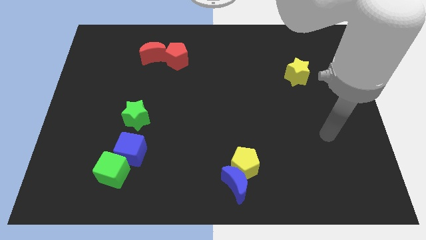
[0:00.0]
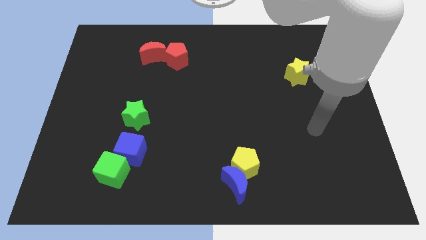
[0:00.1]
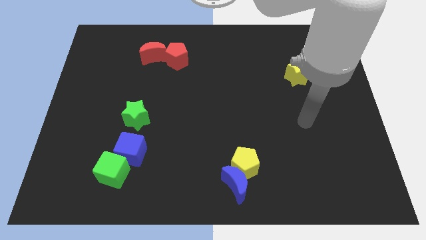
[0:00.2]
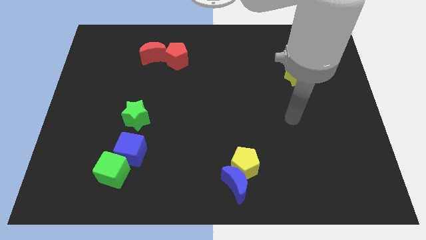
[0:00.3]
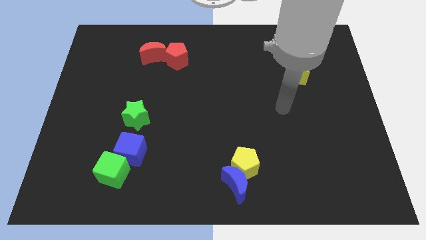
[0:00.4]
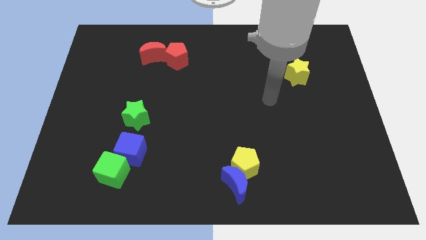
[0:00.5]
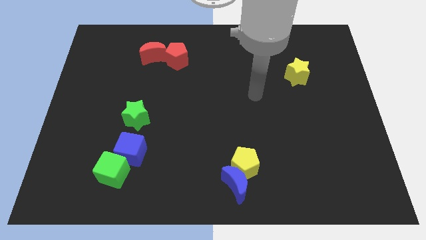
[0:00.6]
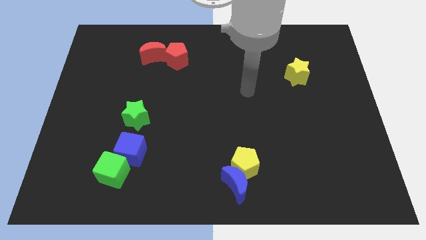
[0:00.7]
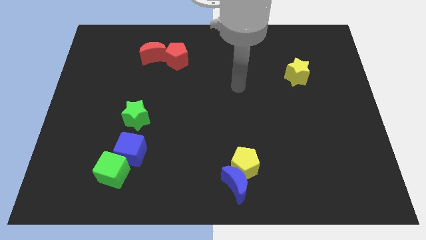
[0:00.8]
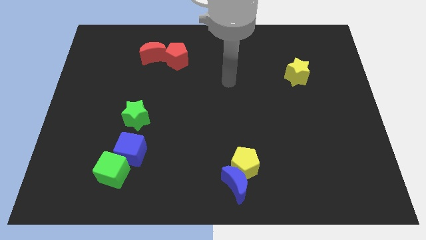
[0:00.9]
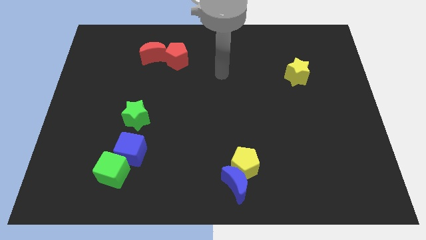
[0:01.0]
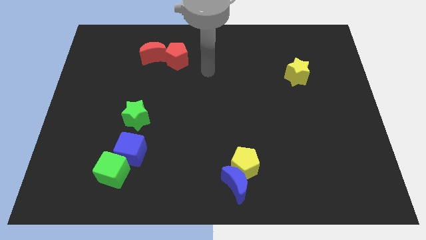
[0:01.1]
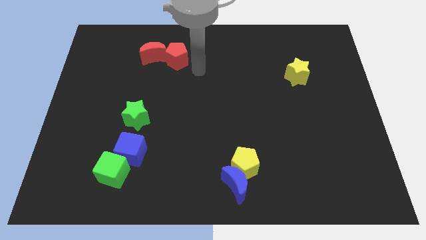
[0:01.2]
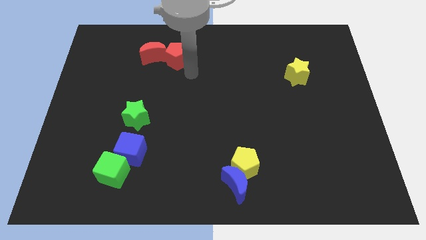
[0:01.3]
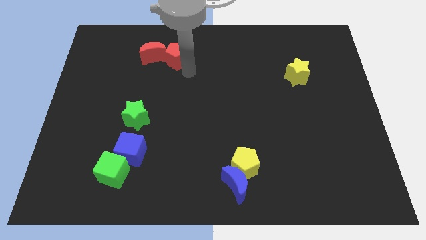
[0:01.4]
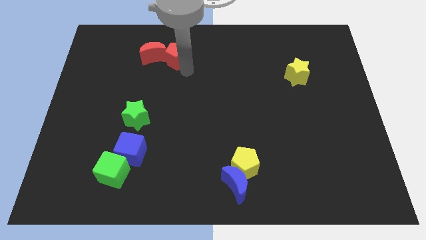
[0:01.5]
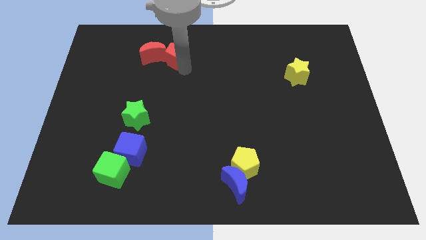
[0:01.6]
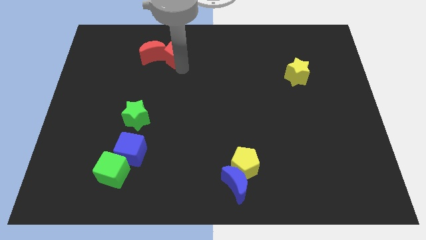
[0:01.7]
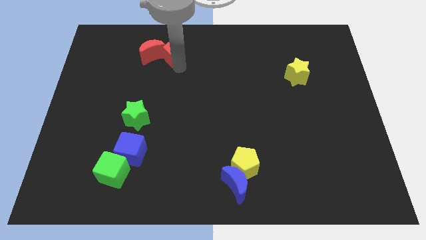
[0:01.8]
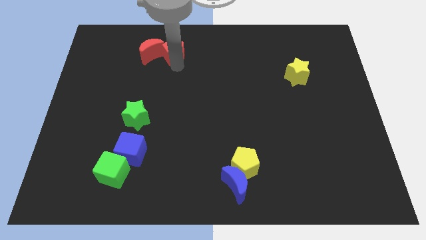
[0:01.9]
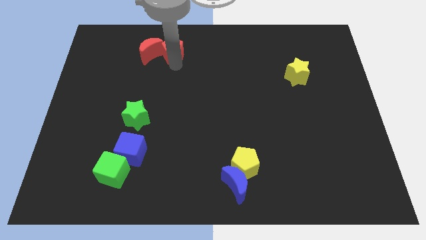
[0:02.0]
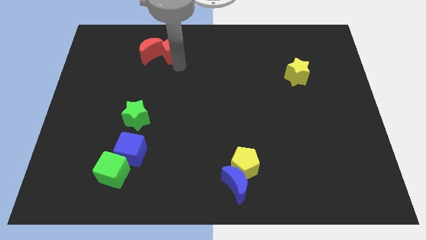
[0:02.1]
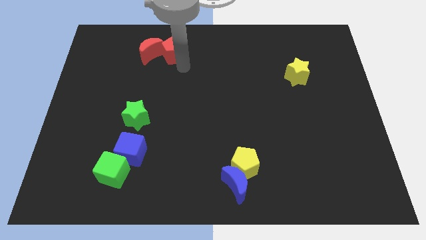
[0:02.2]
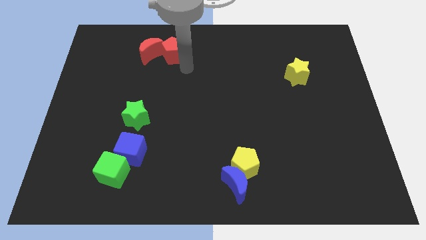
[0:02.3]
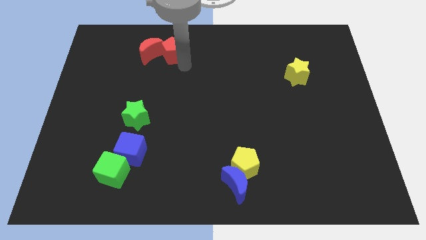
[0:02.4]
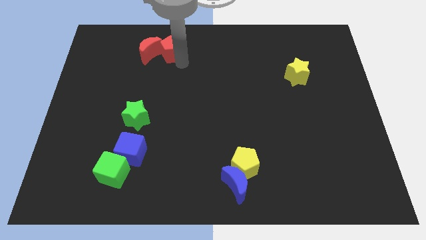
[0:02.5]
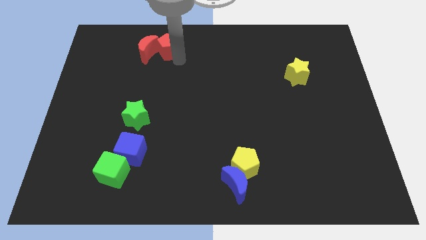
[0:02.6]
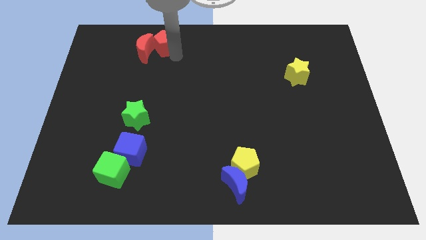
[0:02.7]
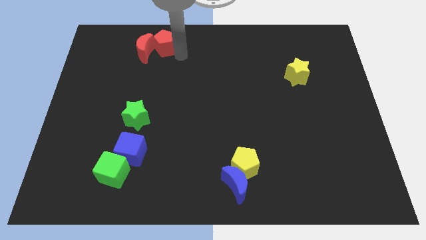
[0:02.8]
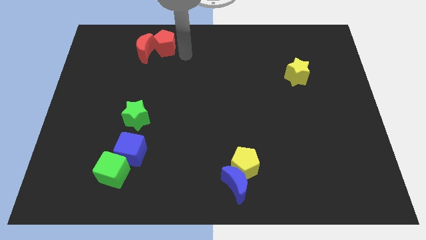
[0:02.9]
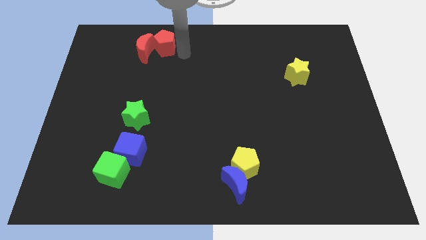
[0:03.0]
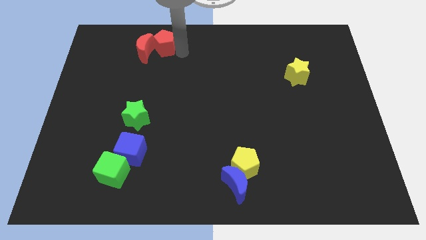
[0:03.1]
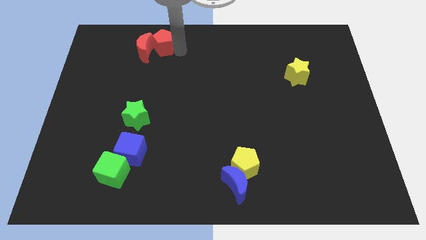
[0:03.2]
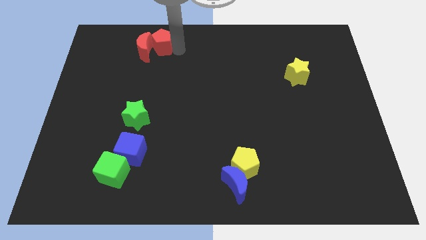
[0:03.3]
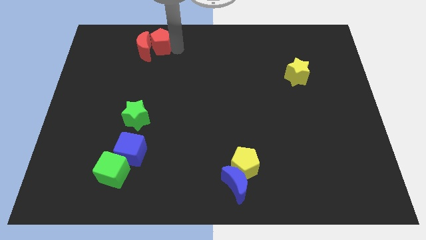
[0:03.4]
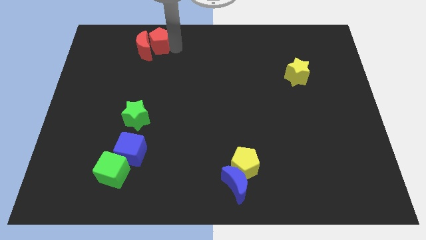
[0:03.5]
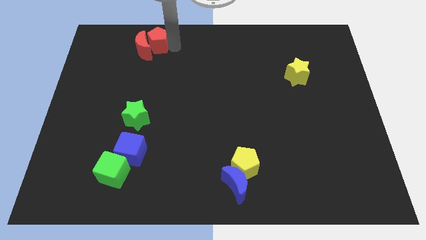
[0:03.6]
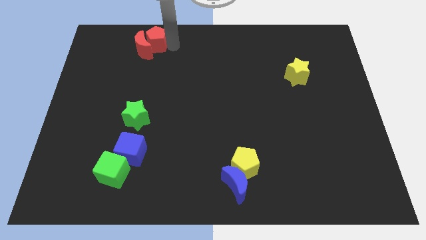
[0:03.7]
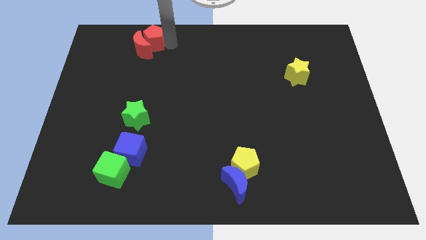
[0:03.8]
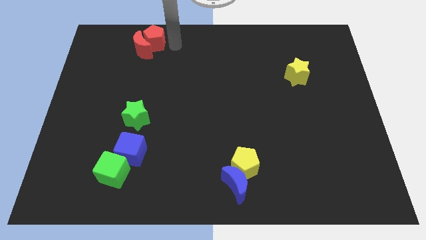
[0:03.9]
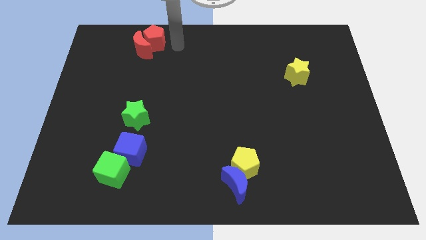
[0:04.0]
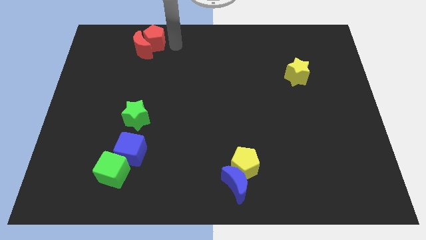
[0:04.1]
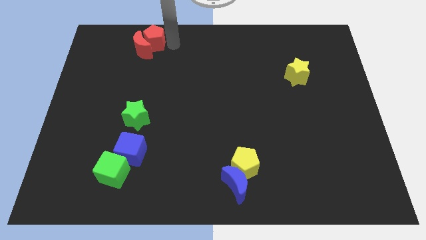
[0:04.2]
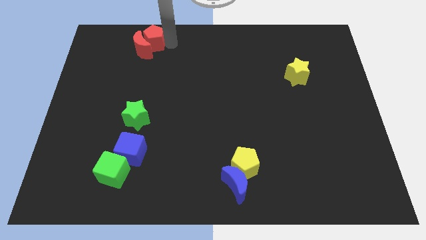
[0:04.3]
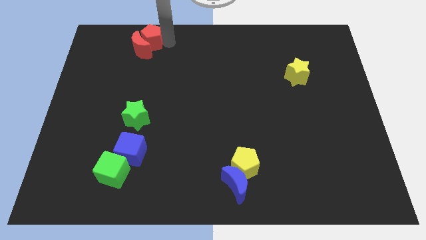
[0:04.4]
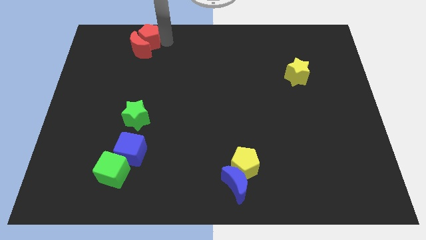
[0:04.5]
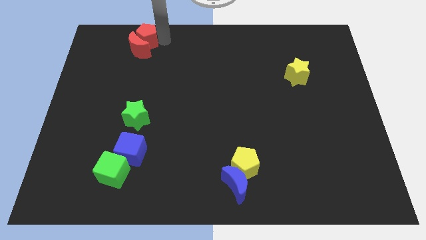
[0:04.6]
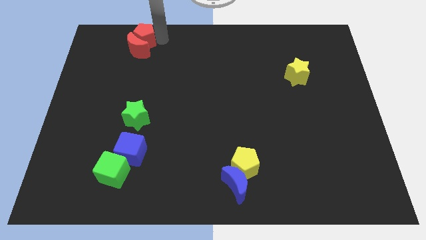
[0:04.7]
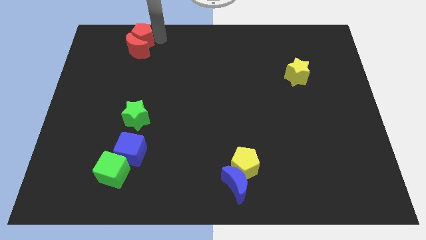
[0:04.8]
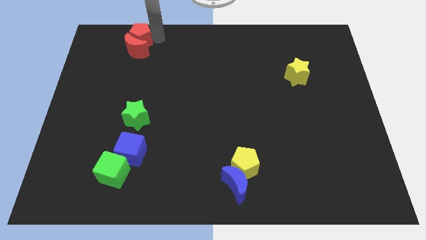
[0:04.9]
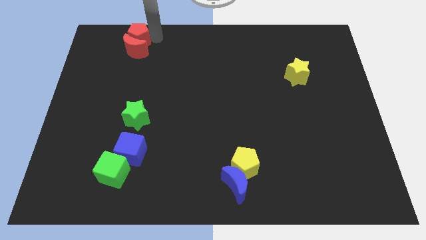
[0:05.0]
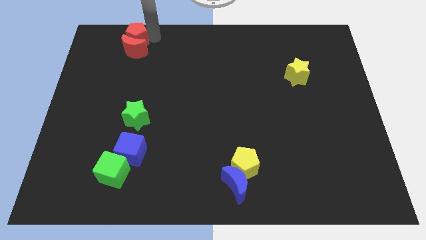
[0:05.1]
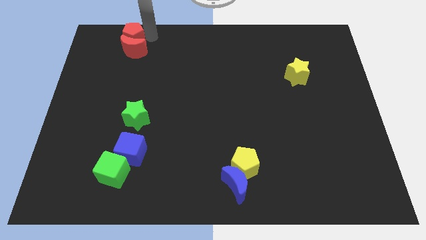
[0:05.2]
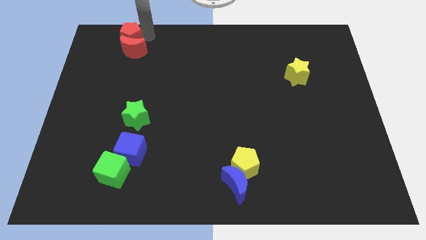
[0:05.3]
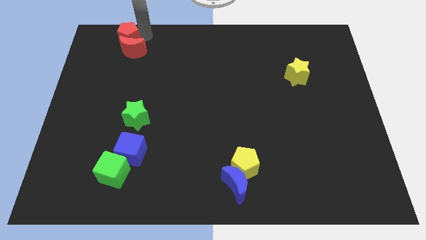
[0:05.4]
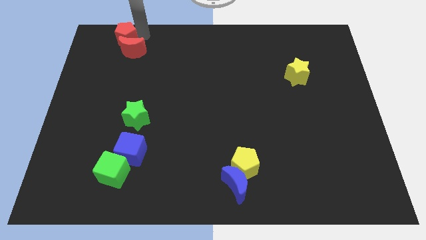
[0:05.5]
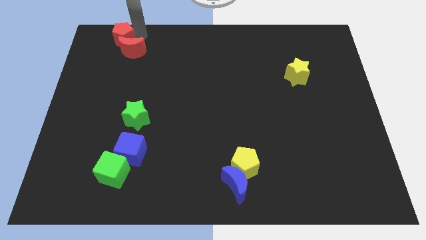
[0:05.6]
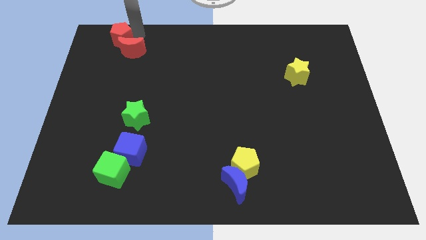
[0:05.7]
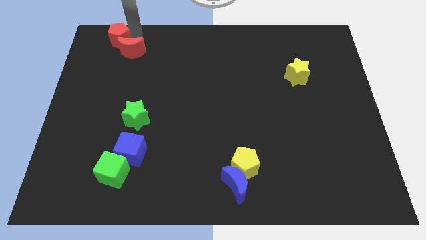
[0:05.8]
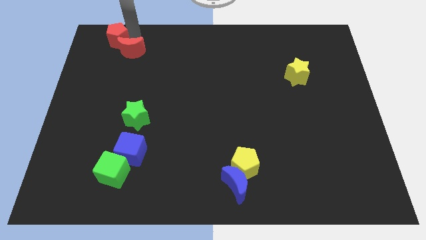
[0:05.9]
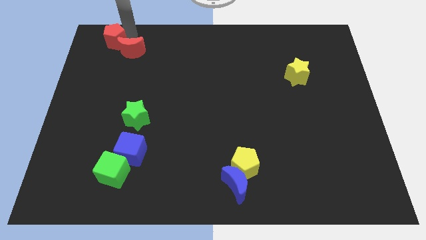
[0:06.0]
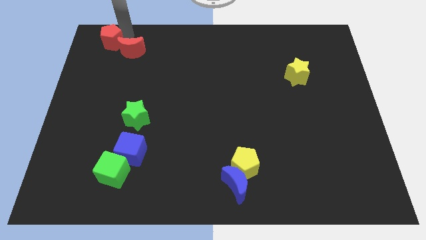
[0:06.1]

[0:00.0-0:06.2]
slide the red pentagon to the upper left corner

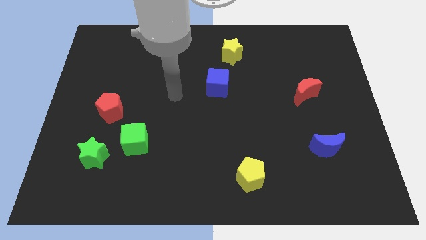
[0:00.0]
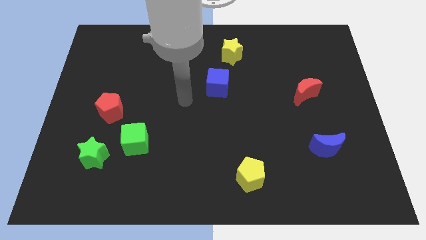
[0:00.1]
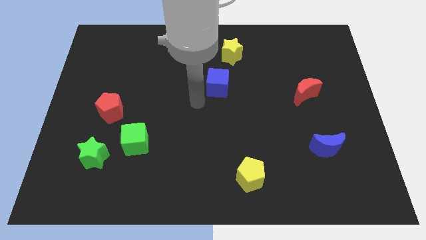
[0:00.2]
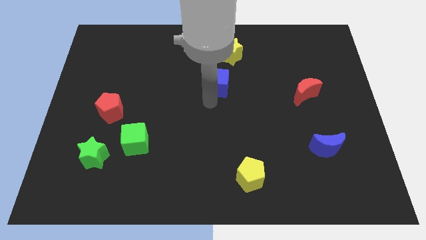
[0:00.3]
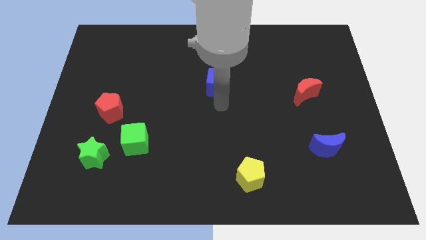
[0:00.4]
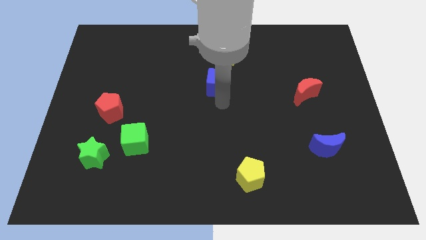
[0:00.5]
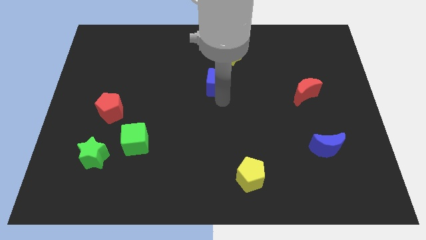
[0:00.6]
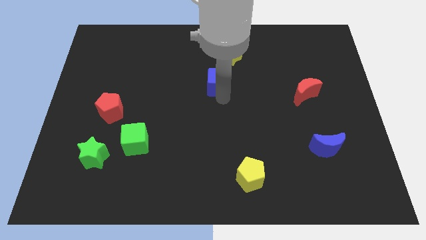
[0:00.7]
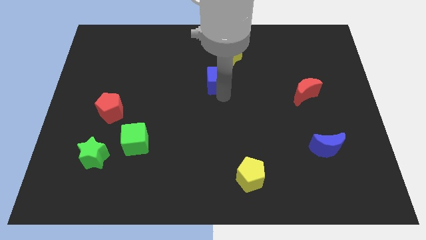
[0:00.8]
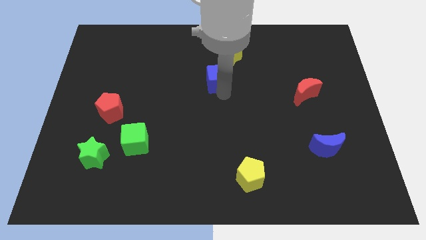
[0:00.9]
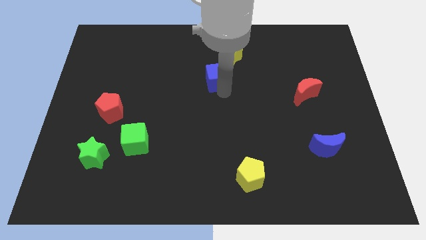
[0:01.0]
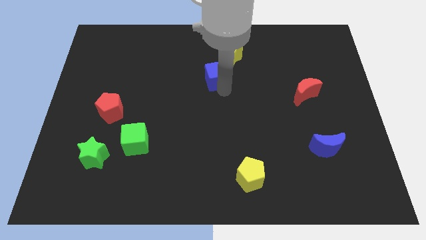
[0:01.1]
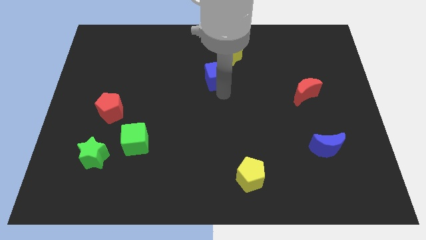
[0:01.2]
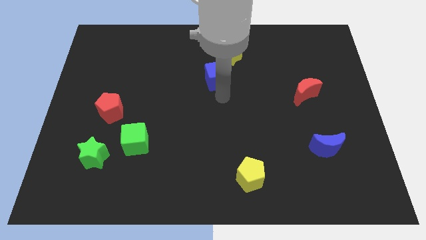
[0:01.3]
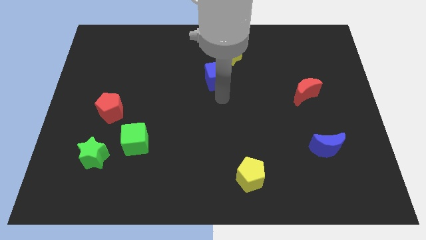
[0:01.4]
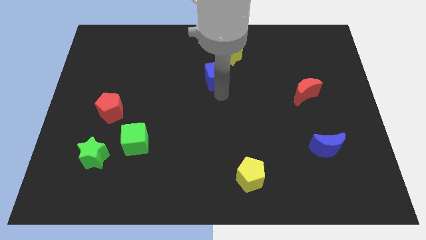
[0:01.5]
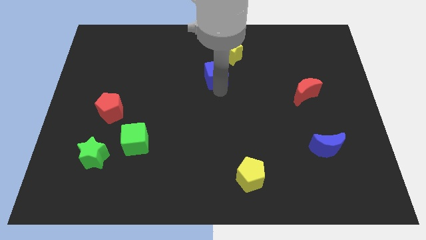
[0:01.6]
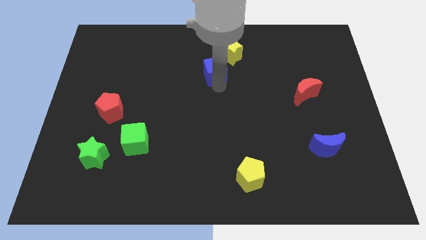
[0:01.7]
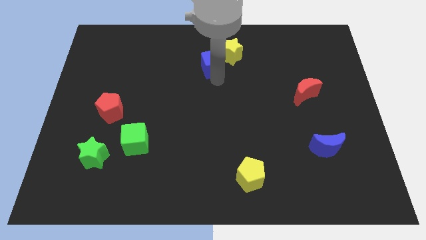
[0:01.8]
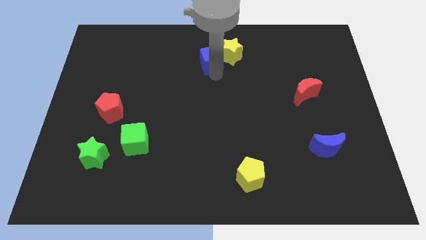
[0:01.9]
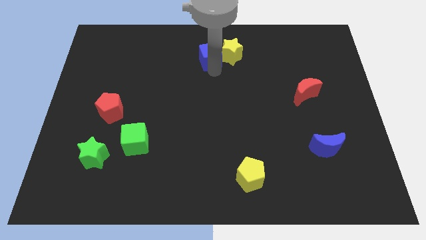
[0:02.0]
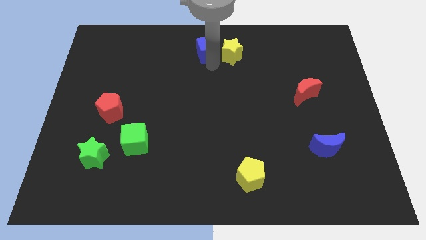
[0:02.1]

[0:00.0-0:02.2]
push the blue cube to the top side
